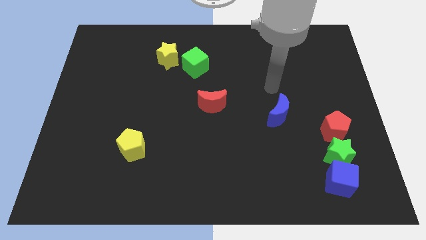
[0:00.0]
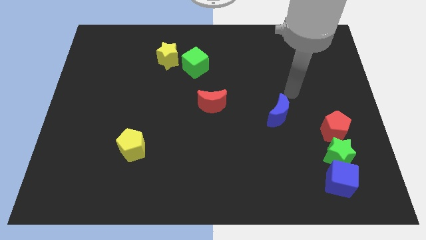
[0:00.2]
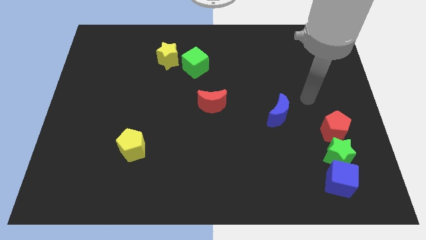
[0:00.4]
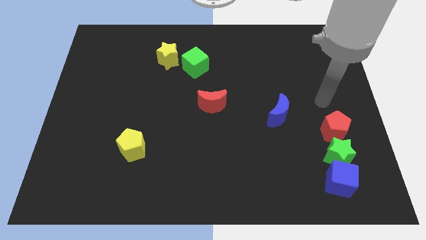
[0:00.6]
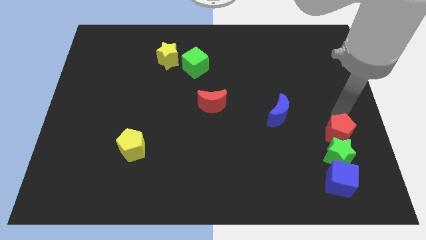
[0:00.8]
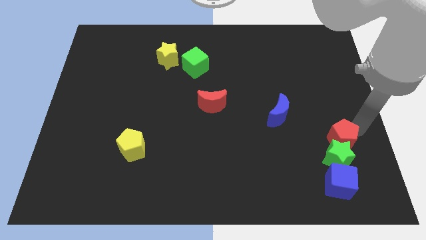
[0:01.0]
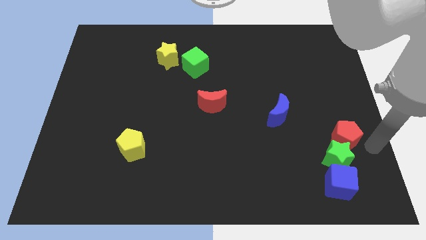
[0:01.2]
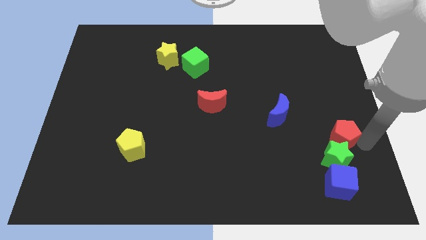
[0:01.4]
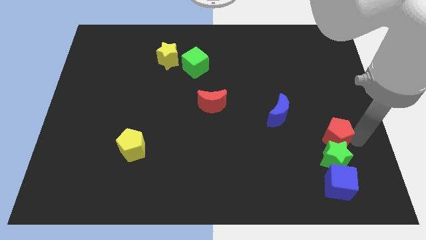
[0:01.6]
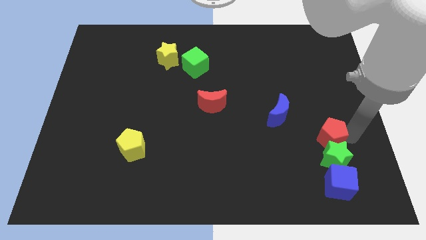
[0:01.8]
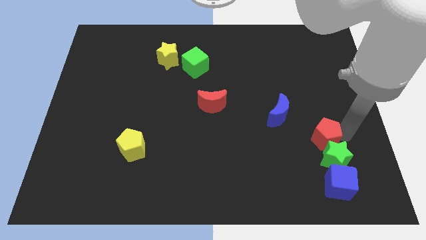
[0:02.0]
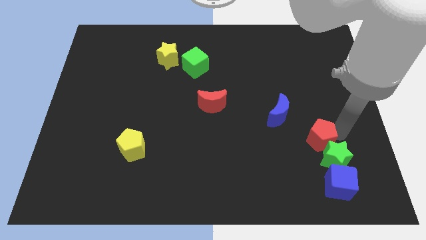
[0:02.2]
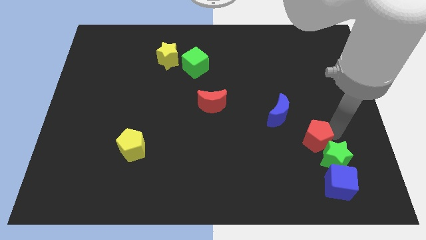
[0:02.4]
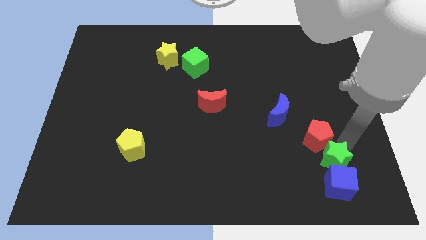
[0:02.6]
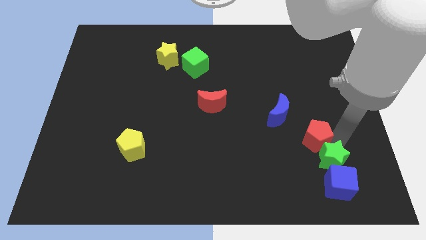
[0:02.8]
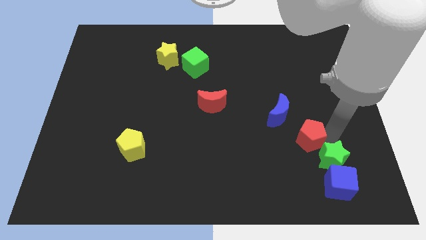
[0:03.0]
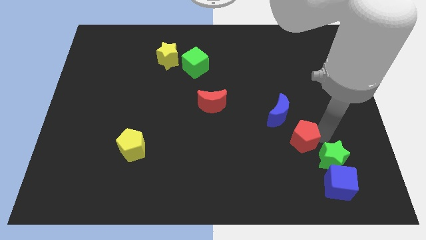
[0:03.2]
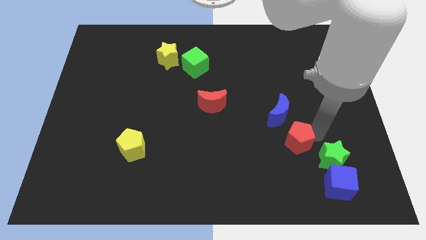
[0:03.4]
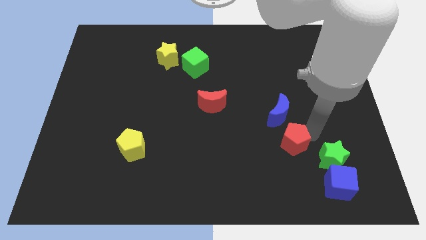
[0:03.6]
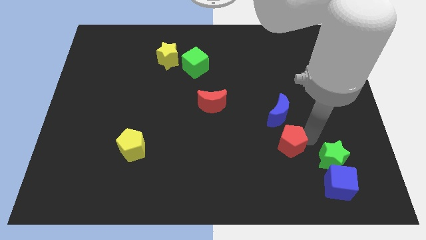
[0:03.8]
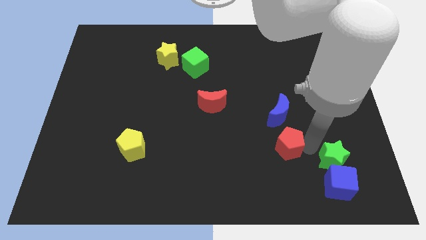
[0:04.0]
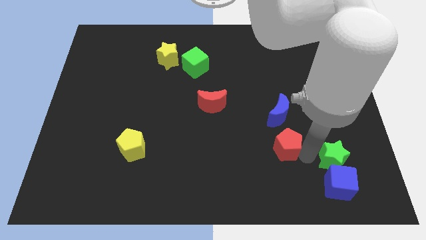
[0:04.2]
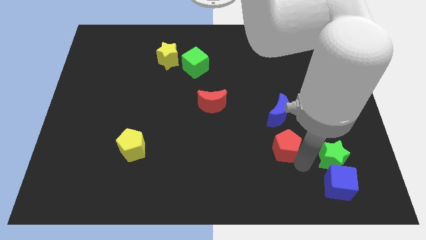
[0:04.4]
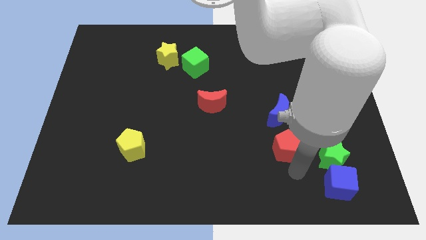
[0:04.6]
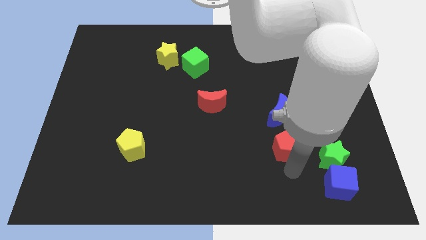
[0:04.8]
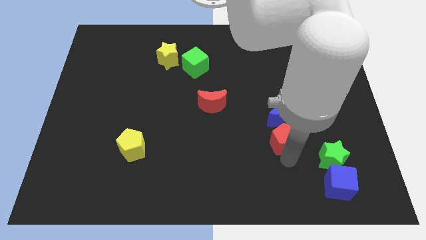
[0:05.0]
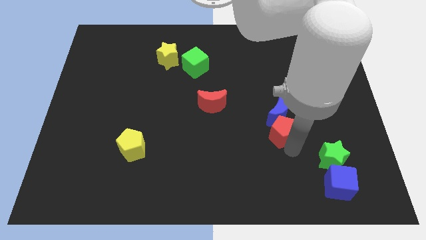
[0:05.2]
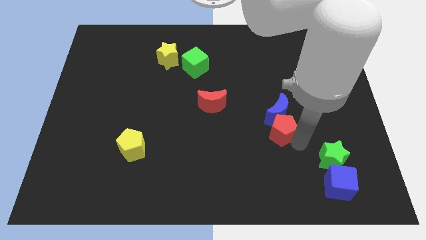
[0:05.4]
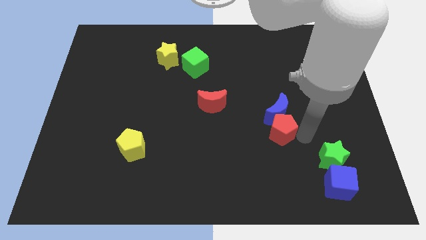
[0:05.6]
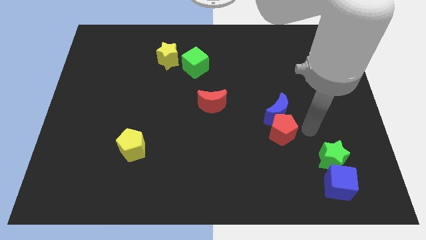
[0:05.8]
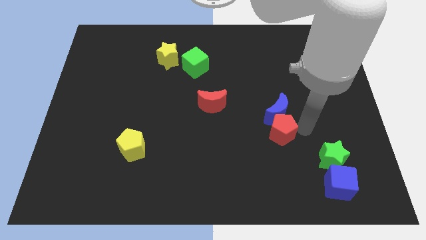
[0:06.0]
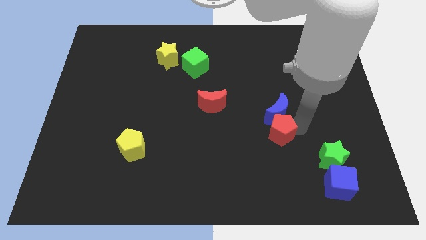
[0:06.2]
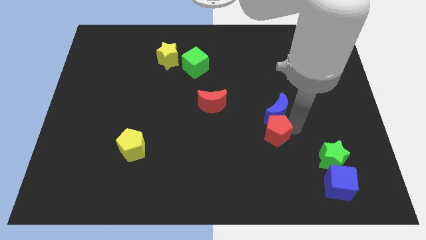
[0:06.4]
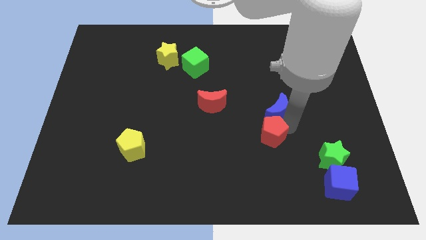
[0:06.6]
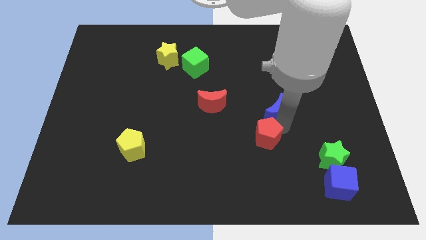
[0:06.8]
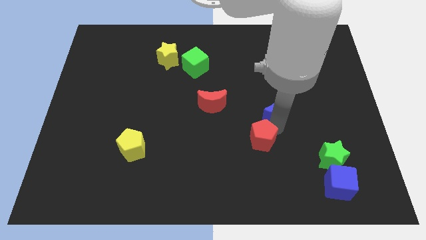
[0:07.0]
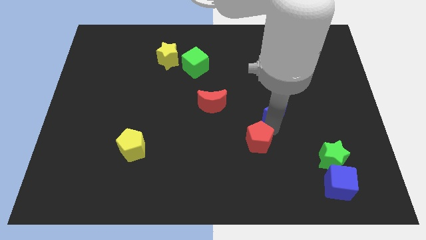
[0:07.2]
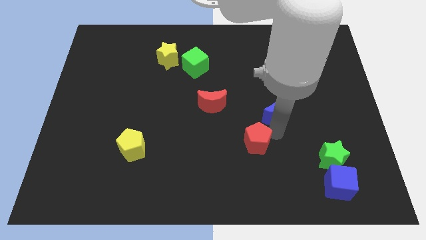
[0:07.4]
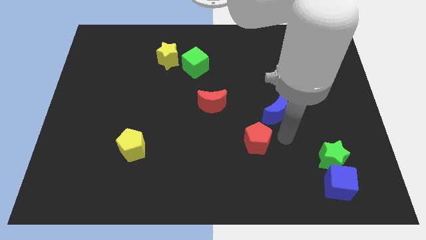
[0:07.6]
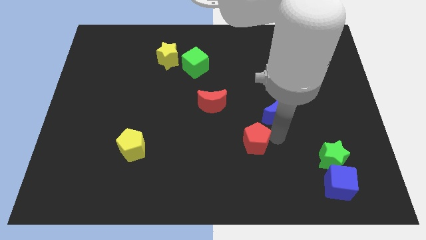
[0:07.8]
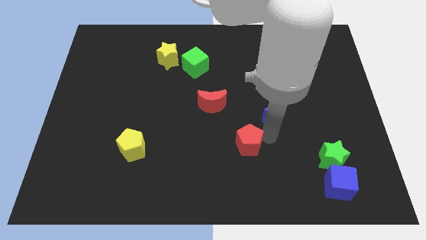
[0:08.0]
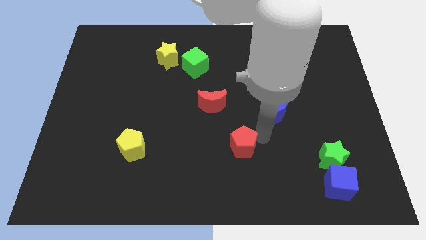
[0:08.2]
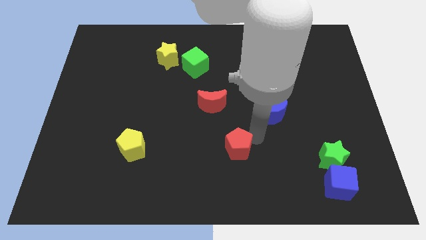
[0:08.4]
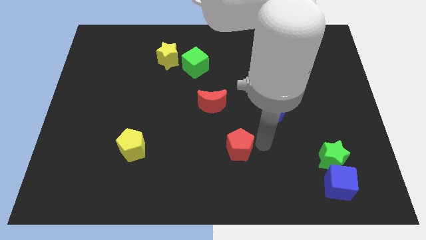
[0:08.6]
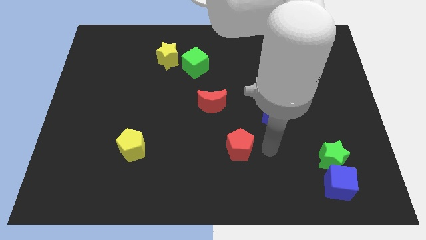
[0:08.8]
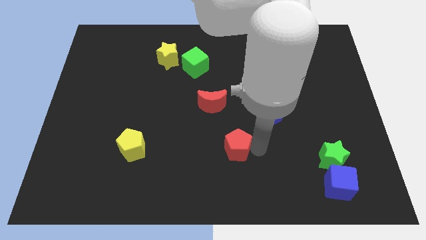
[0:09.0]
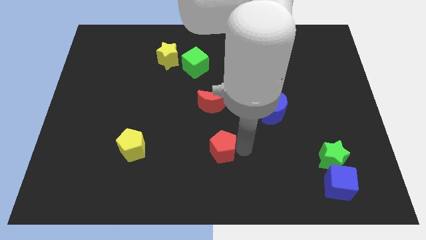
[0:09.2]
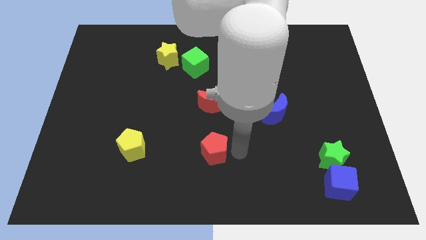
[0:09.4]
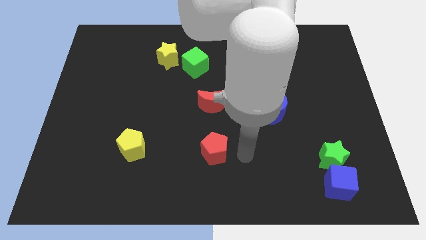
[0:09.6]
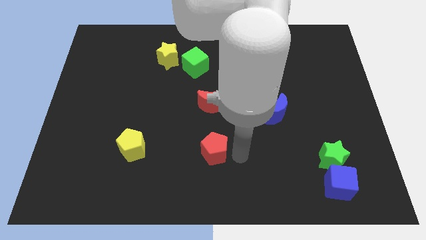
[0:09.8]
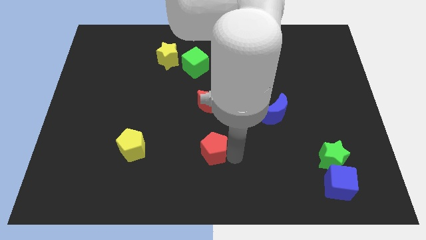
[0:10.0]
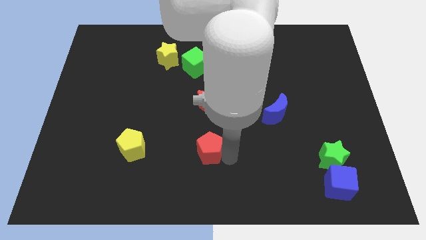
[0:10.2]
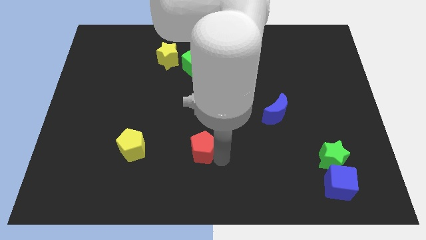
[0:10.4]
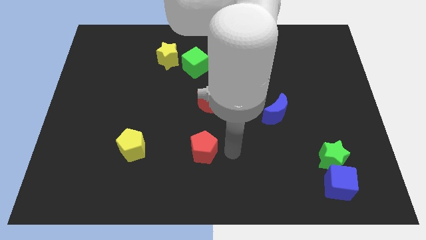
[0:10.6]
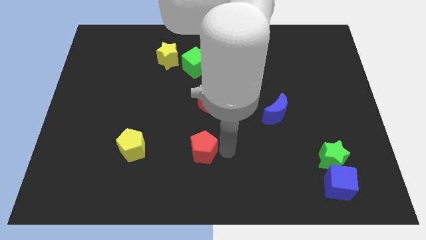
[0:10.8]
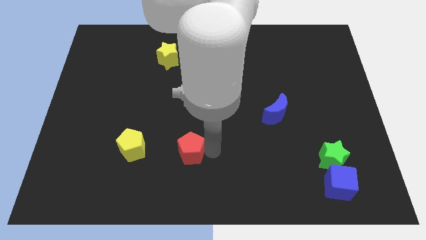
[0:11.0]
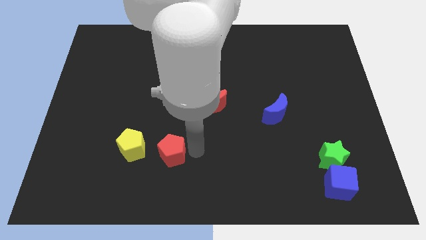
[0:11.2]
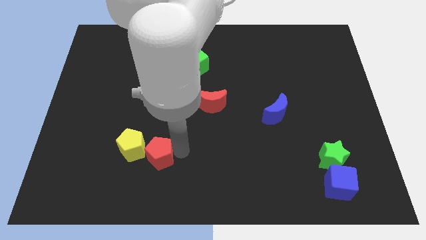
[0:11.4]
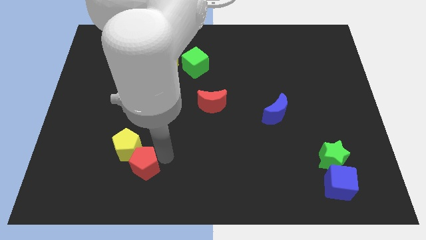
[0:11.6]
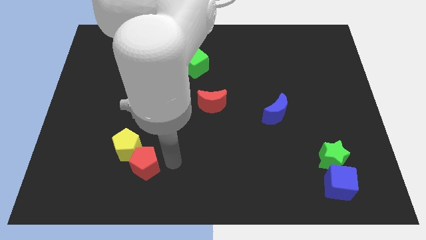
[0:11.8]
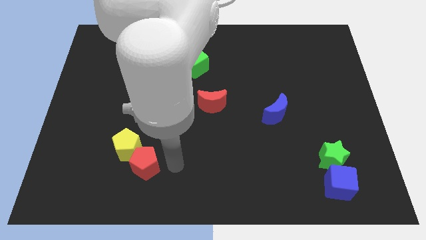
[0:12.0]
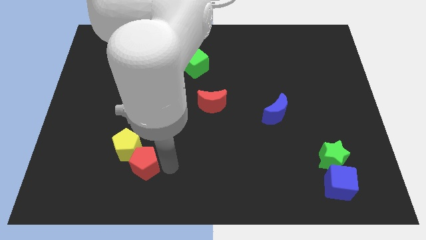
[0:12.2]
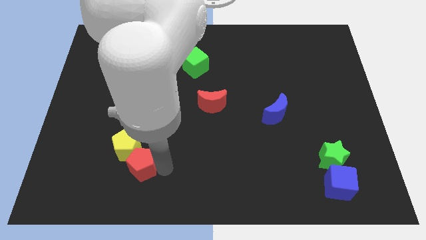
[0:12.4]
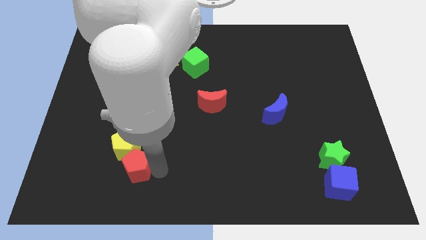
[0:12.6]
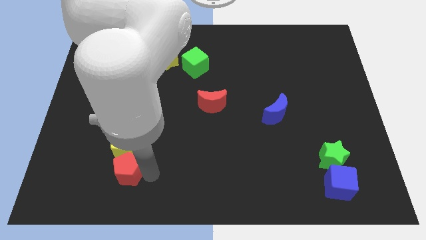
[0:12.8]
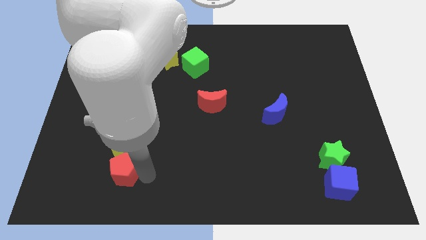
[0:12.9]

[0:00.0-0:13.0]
move the red pentagon to the bottom left of the yellow pentagon
